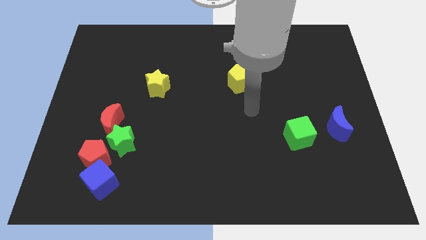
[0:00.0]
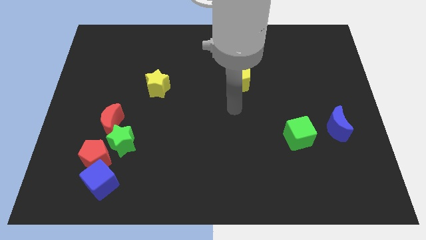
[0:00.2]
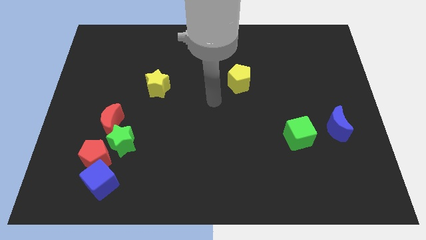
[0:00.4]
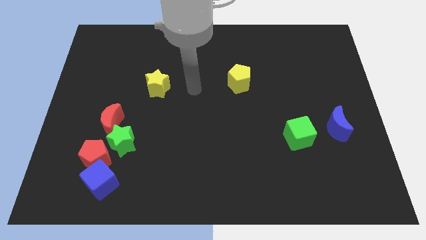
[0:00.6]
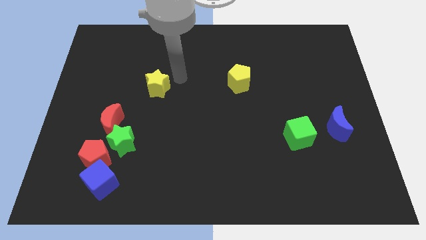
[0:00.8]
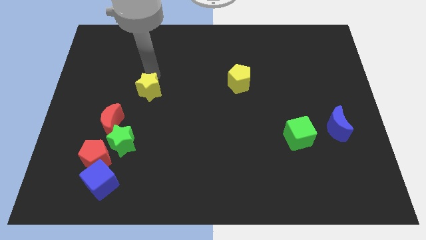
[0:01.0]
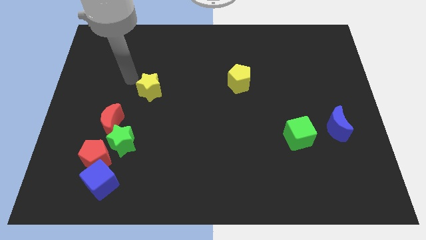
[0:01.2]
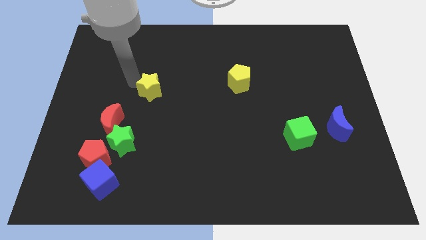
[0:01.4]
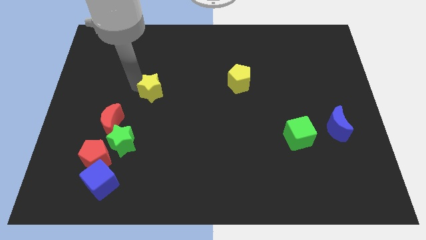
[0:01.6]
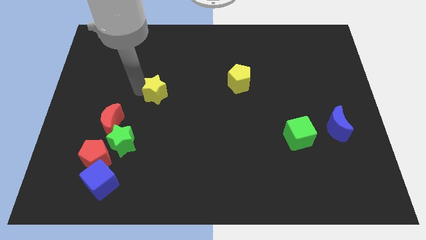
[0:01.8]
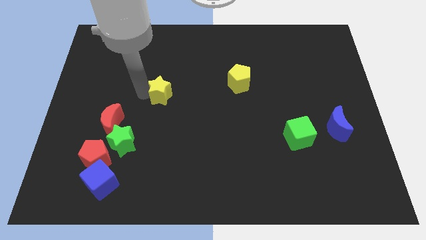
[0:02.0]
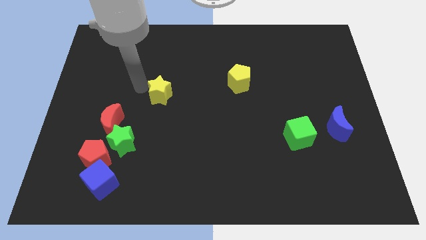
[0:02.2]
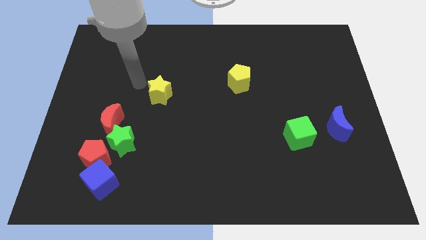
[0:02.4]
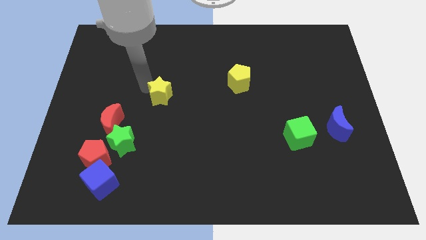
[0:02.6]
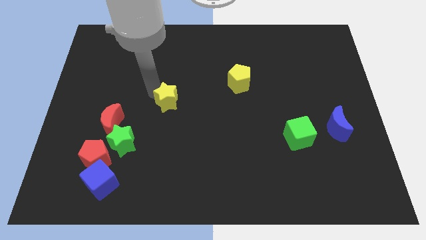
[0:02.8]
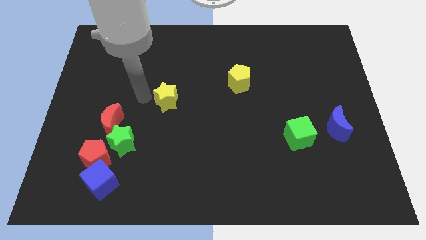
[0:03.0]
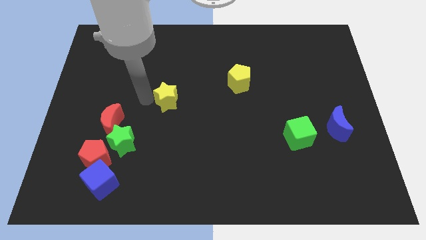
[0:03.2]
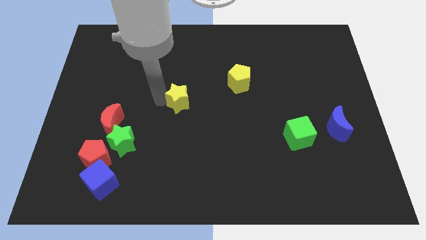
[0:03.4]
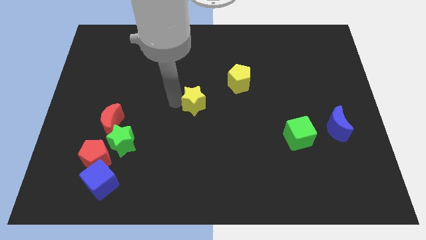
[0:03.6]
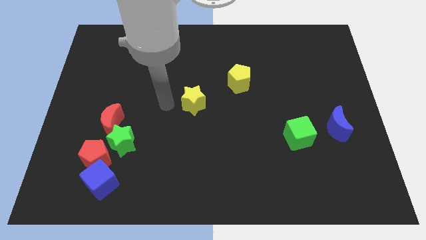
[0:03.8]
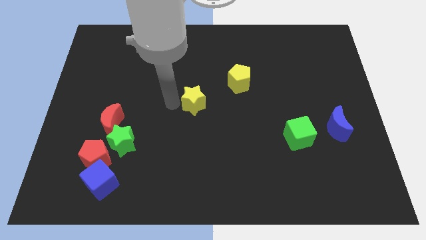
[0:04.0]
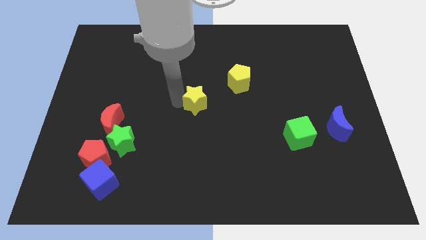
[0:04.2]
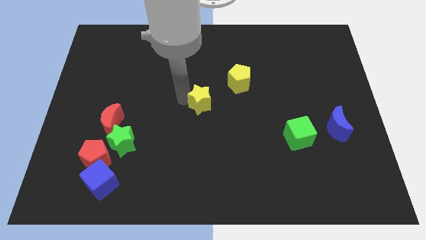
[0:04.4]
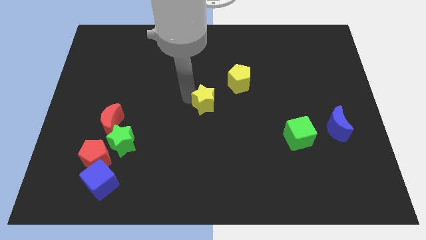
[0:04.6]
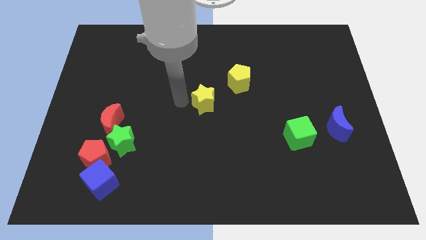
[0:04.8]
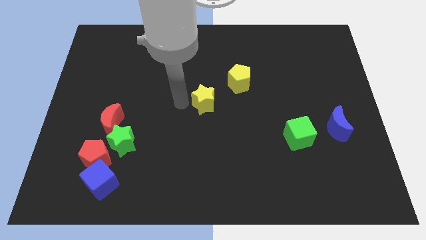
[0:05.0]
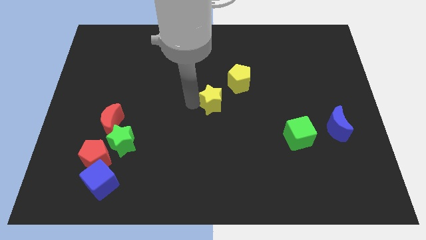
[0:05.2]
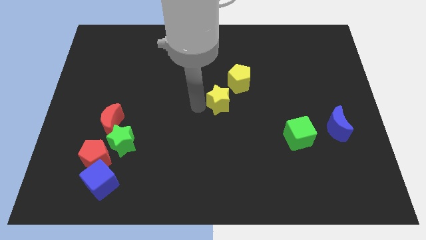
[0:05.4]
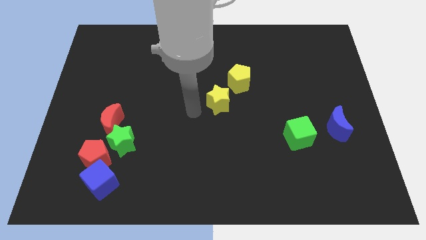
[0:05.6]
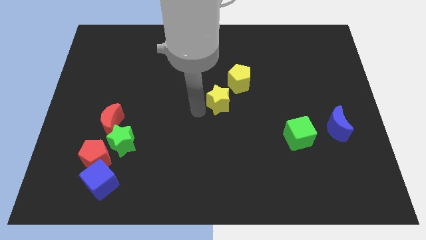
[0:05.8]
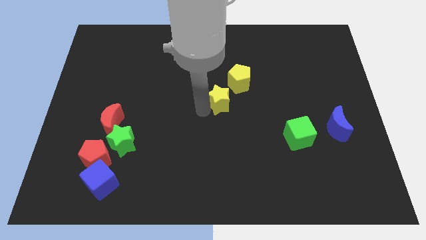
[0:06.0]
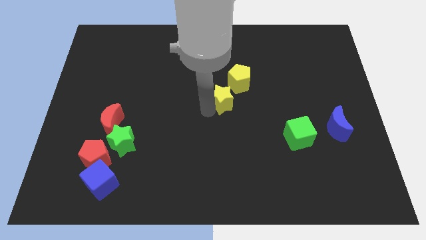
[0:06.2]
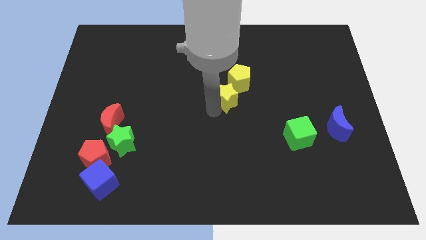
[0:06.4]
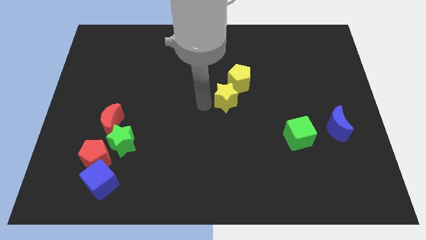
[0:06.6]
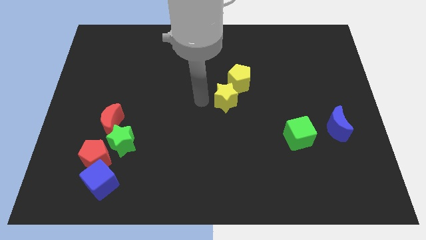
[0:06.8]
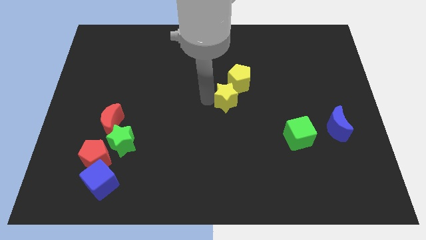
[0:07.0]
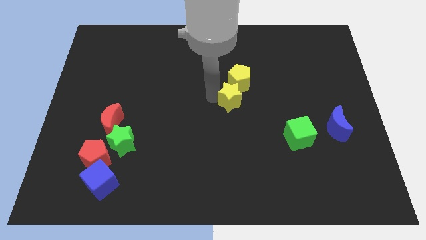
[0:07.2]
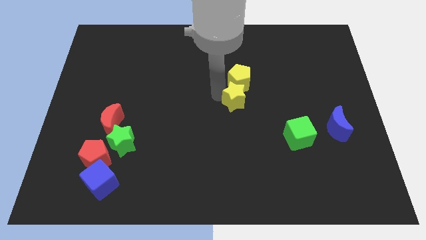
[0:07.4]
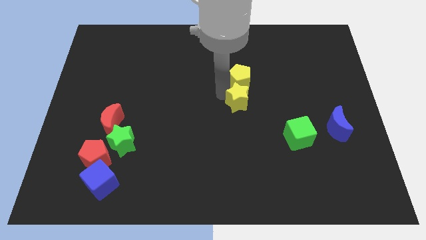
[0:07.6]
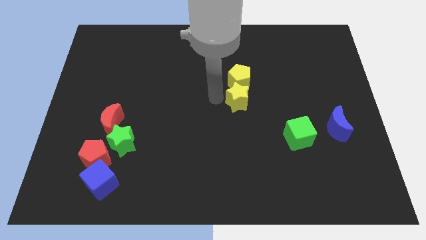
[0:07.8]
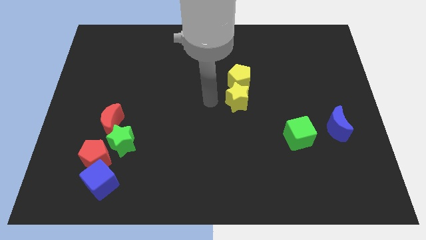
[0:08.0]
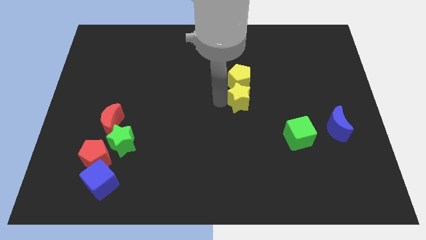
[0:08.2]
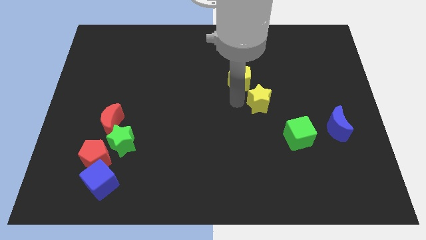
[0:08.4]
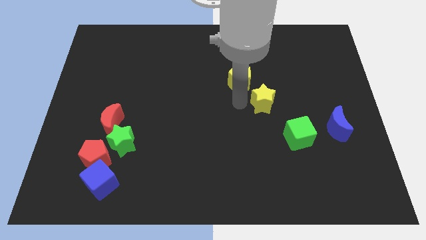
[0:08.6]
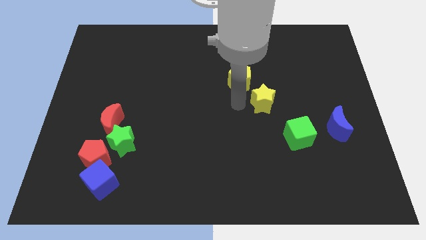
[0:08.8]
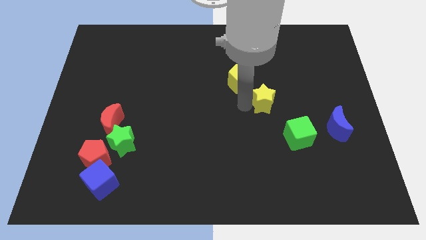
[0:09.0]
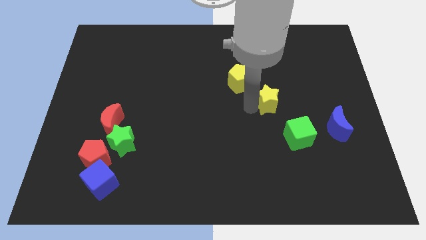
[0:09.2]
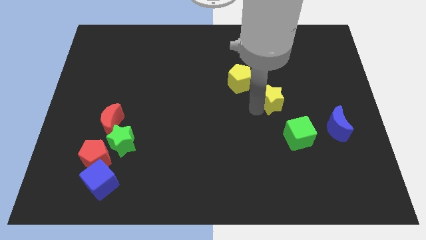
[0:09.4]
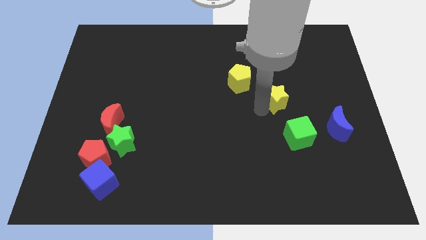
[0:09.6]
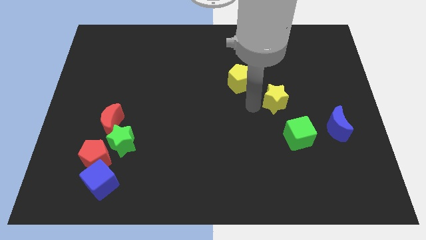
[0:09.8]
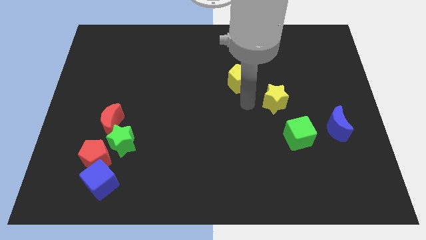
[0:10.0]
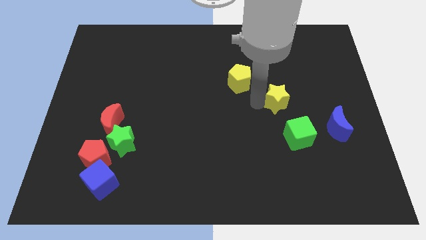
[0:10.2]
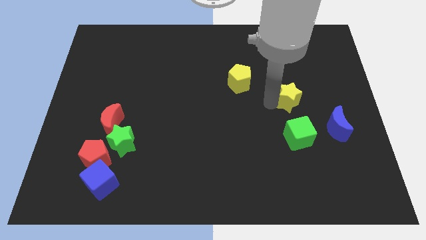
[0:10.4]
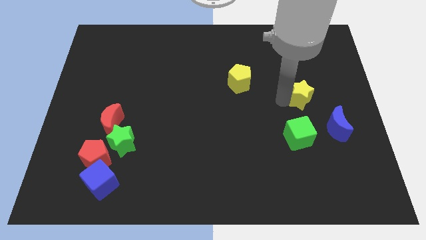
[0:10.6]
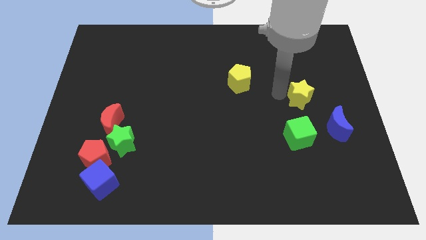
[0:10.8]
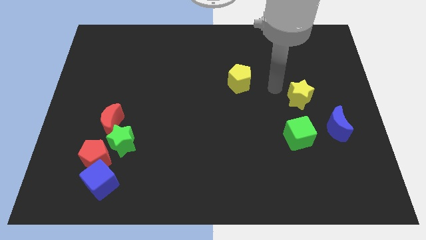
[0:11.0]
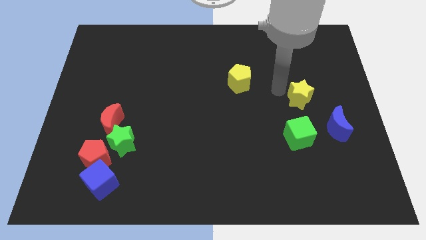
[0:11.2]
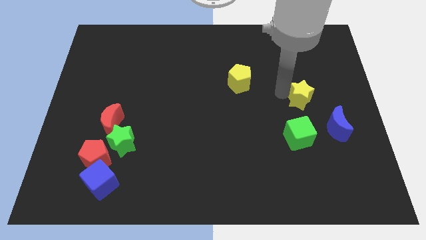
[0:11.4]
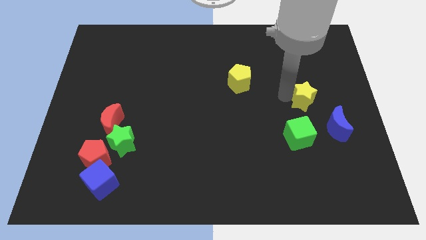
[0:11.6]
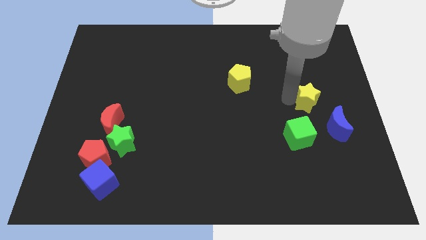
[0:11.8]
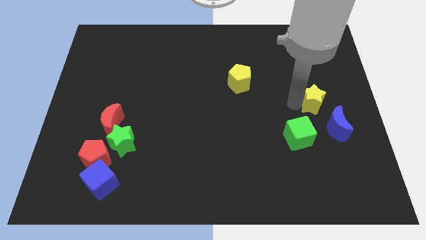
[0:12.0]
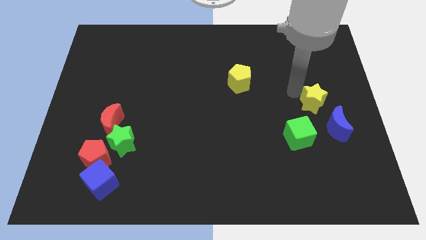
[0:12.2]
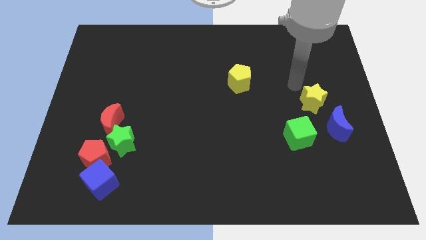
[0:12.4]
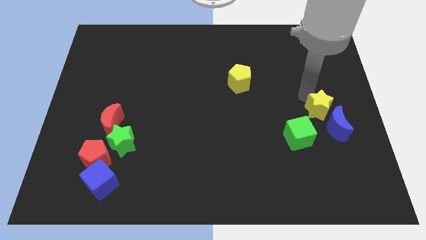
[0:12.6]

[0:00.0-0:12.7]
slide the yellow star to the blue moon

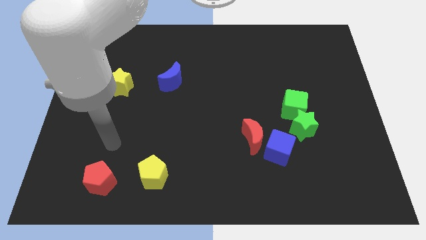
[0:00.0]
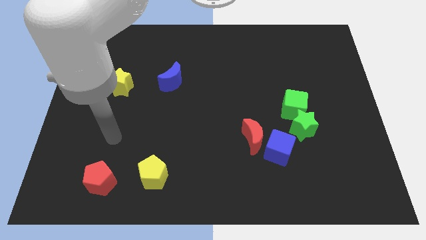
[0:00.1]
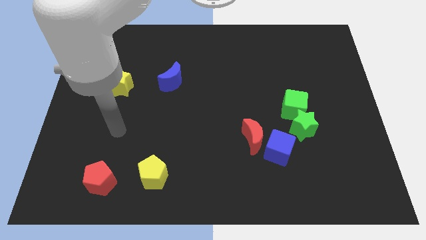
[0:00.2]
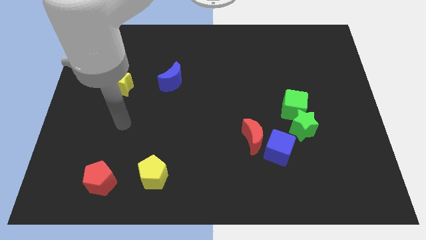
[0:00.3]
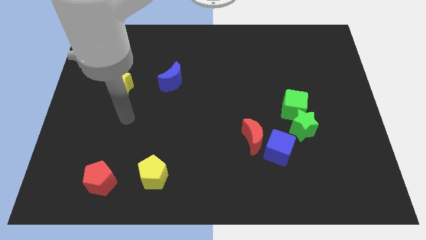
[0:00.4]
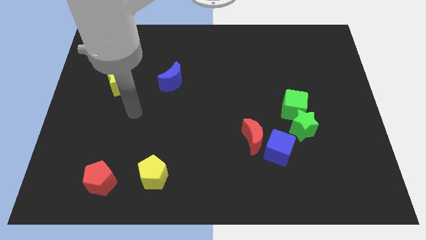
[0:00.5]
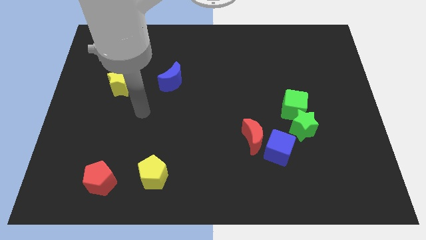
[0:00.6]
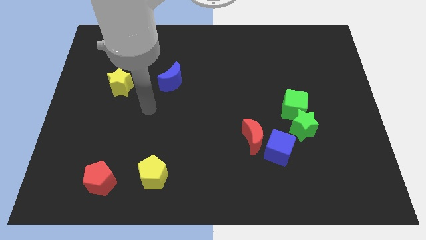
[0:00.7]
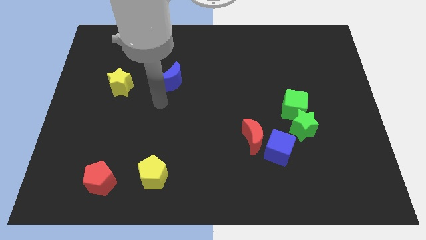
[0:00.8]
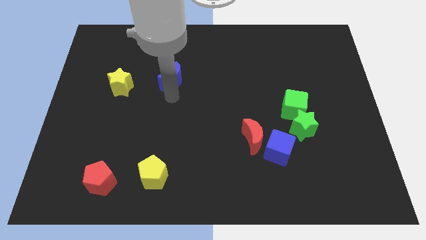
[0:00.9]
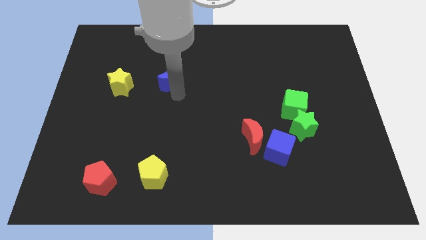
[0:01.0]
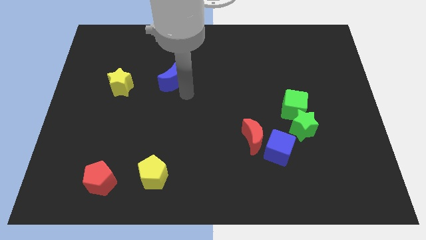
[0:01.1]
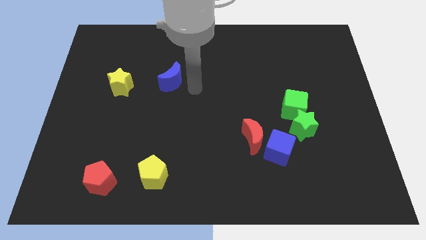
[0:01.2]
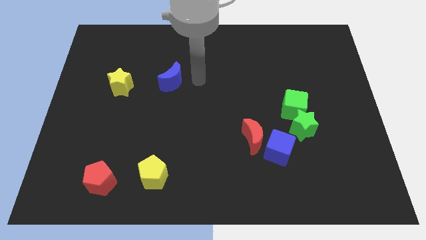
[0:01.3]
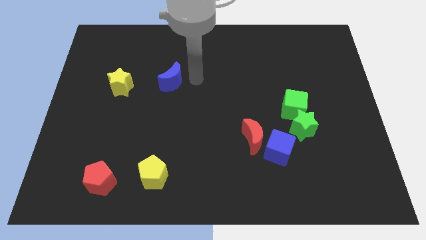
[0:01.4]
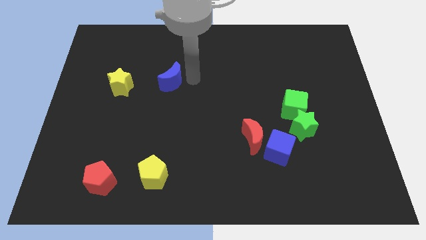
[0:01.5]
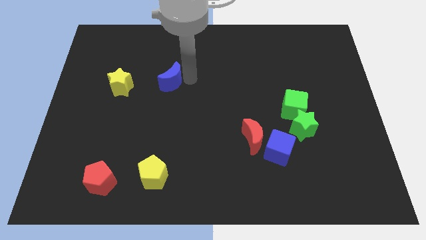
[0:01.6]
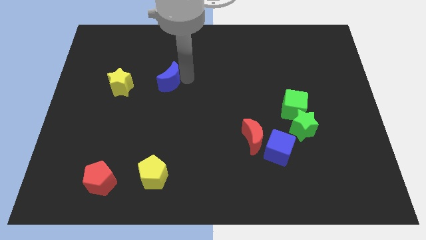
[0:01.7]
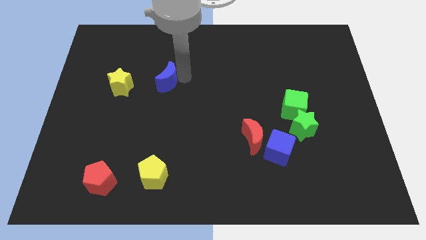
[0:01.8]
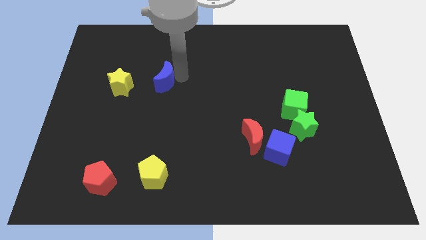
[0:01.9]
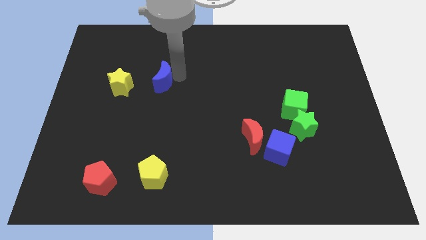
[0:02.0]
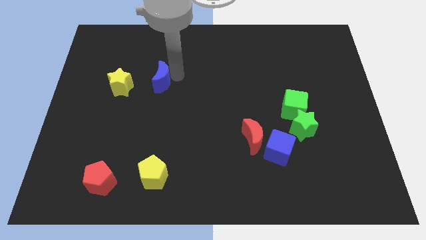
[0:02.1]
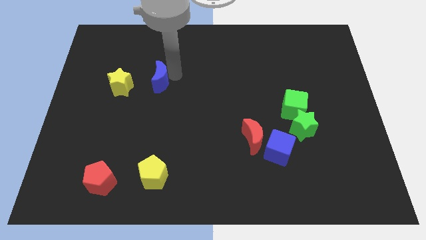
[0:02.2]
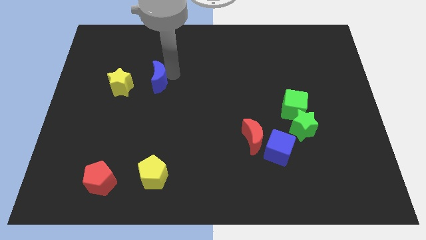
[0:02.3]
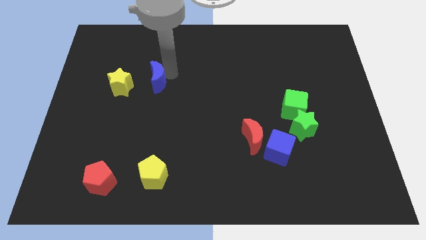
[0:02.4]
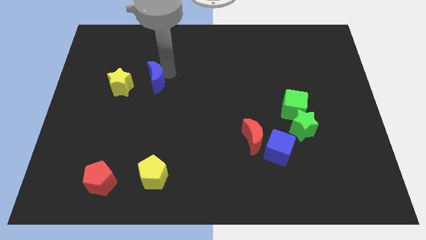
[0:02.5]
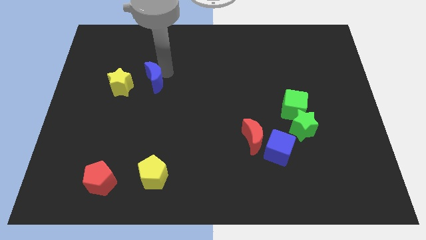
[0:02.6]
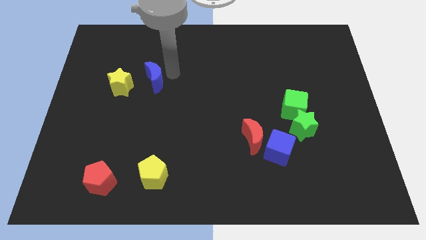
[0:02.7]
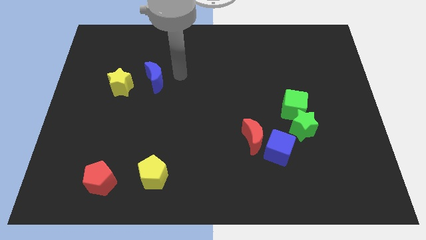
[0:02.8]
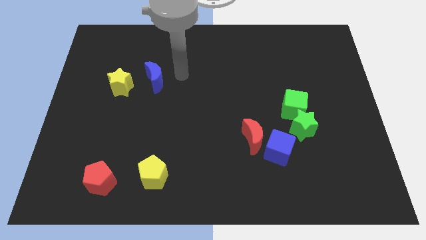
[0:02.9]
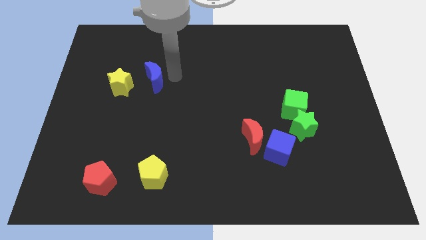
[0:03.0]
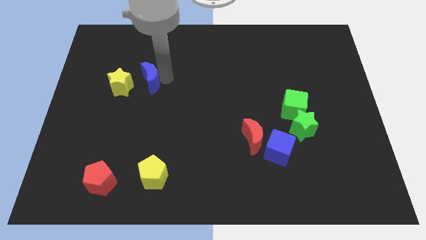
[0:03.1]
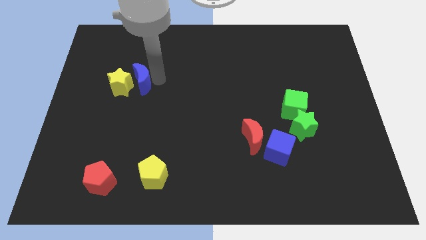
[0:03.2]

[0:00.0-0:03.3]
push the blue moon next to the yellow star
